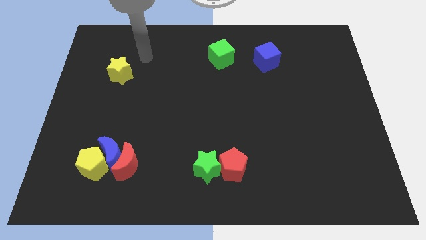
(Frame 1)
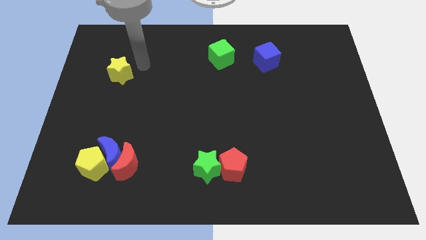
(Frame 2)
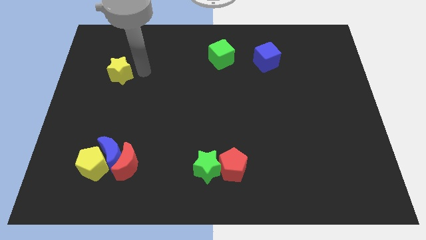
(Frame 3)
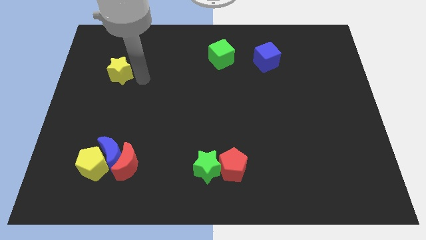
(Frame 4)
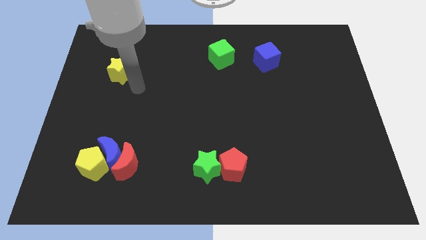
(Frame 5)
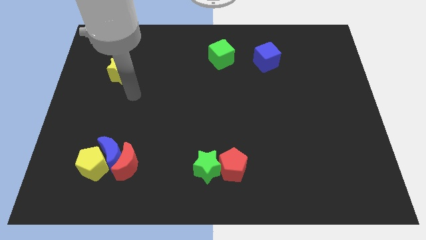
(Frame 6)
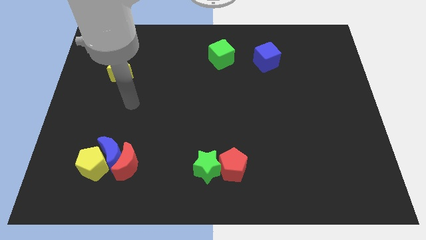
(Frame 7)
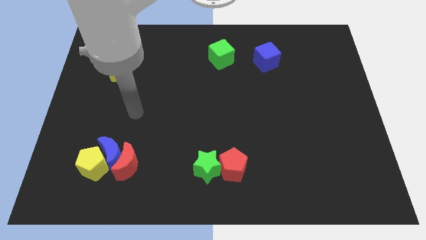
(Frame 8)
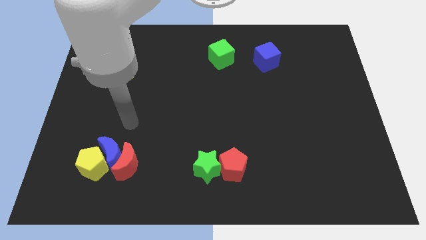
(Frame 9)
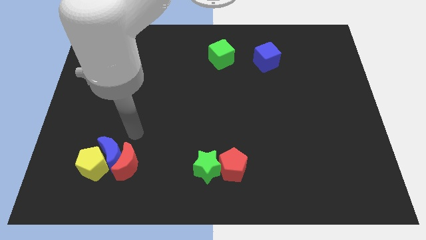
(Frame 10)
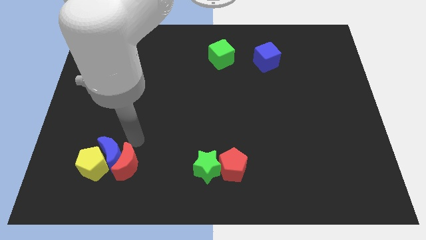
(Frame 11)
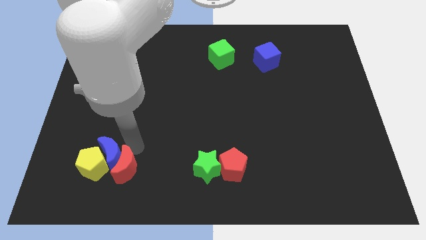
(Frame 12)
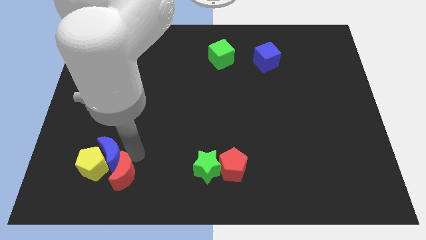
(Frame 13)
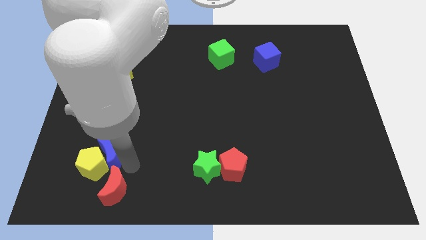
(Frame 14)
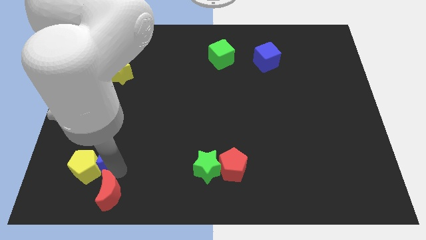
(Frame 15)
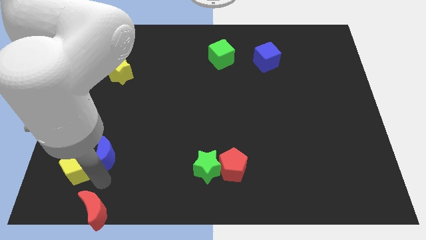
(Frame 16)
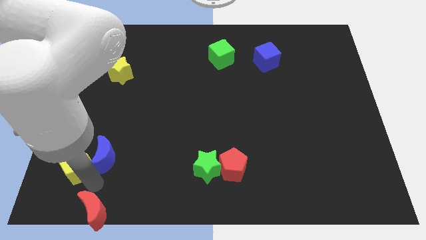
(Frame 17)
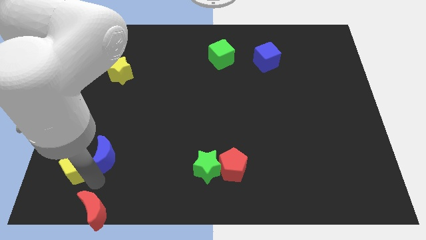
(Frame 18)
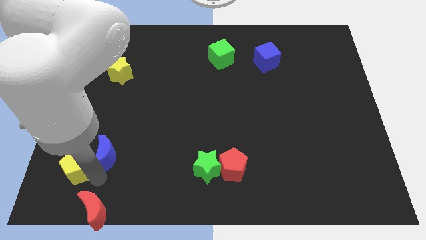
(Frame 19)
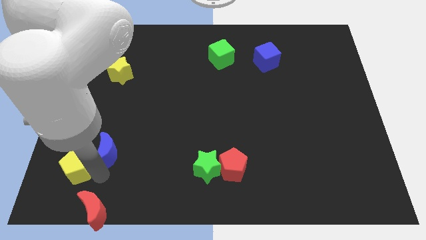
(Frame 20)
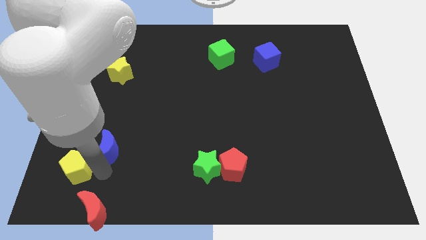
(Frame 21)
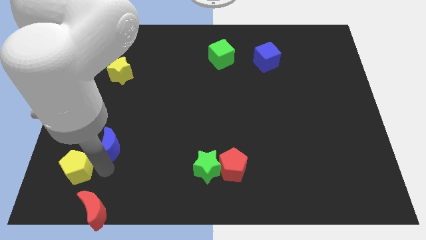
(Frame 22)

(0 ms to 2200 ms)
move the blue moon away from the red moon and yellow pentagon

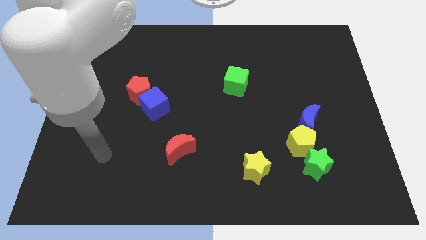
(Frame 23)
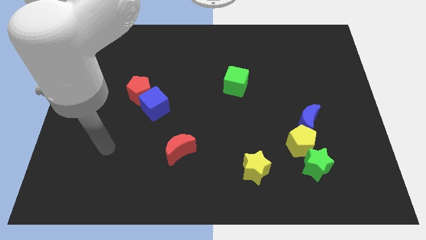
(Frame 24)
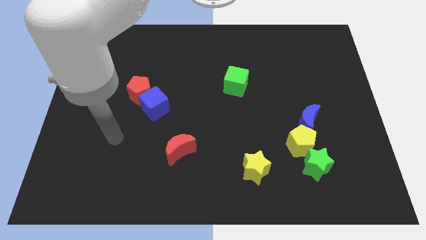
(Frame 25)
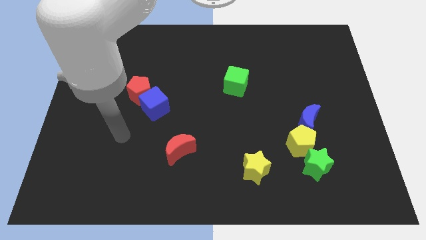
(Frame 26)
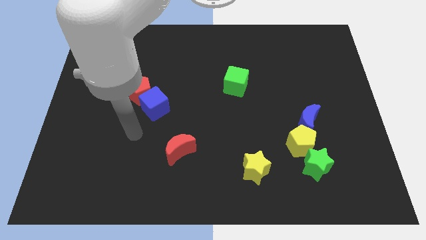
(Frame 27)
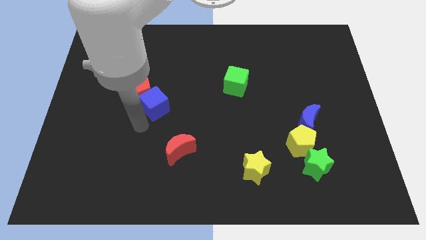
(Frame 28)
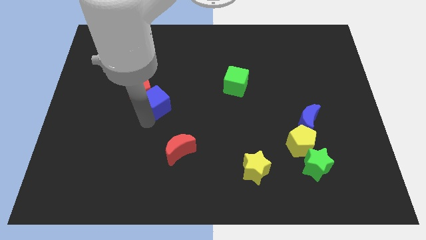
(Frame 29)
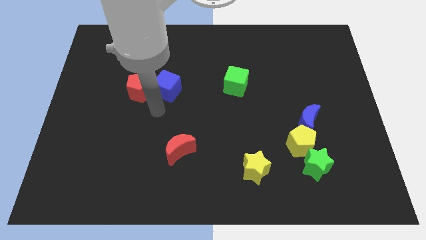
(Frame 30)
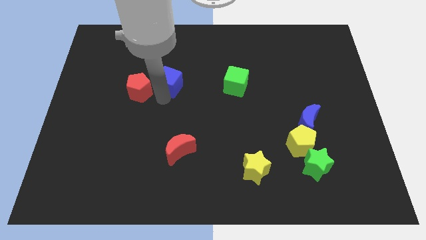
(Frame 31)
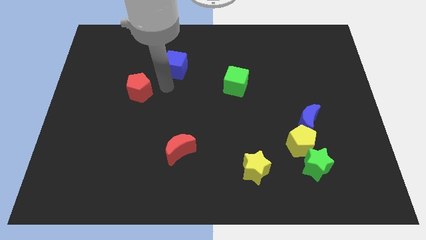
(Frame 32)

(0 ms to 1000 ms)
pull the red pentagon apart from the blue cube

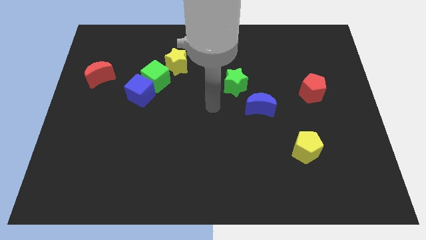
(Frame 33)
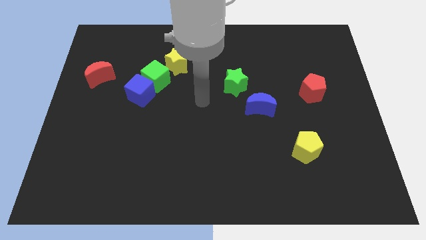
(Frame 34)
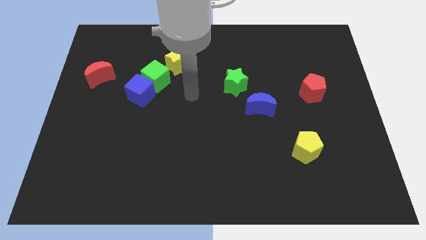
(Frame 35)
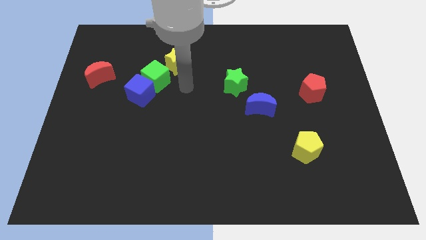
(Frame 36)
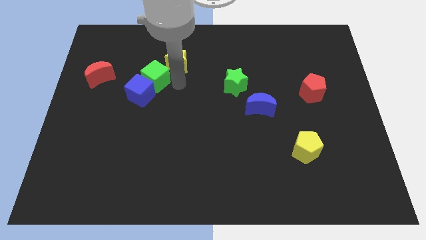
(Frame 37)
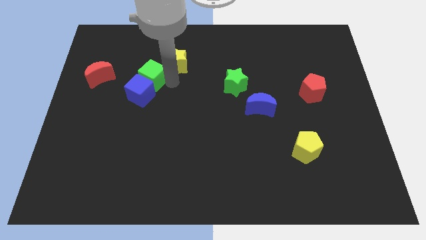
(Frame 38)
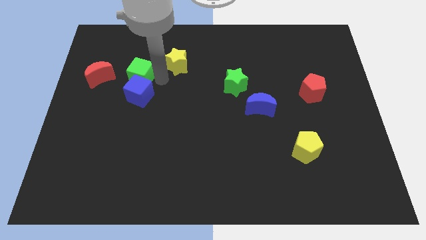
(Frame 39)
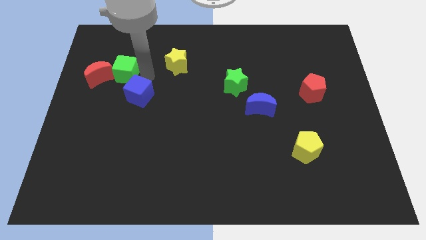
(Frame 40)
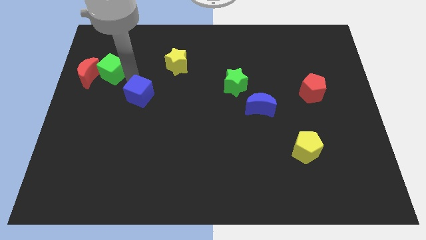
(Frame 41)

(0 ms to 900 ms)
move the blue cube away from the green cube

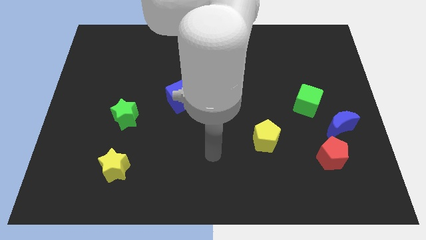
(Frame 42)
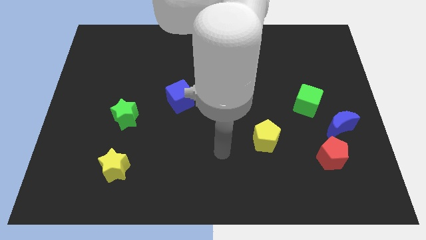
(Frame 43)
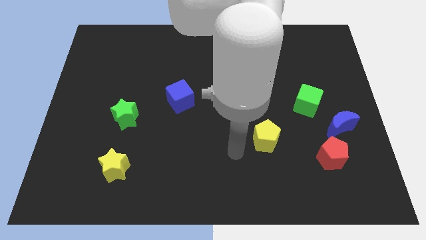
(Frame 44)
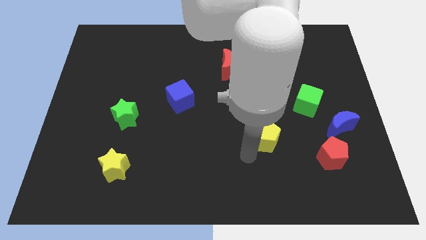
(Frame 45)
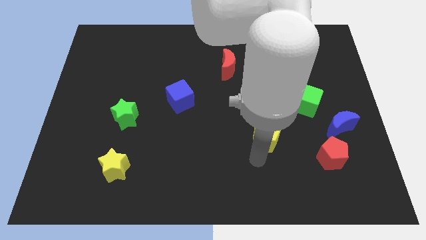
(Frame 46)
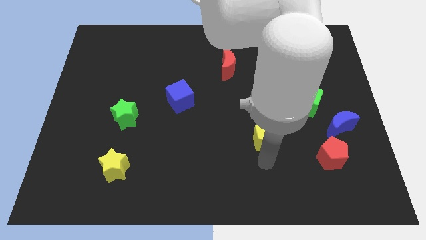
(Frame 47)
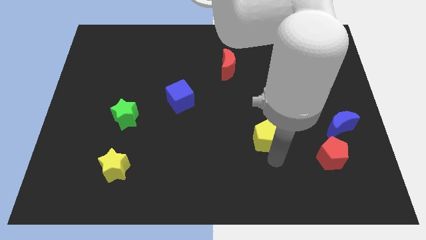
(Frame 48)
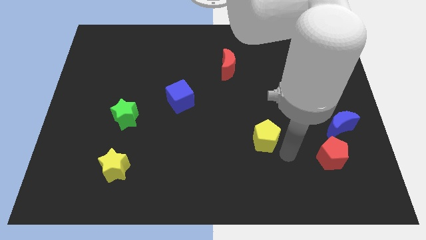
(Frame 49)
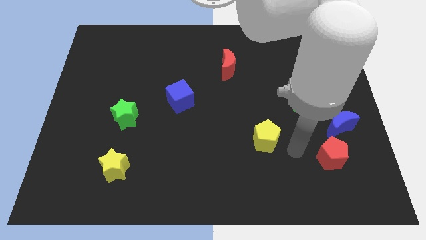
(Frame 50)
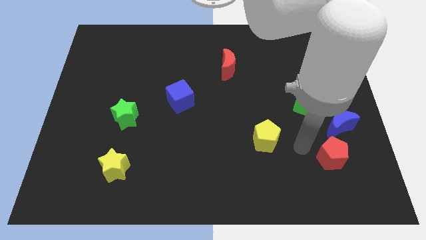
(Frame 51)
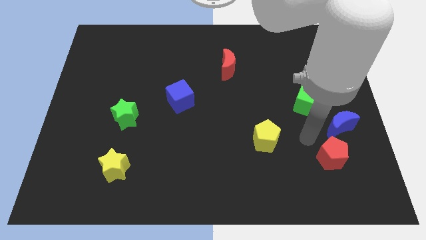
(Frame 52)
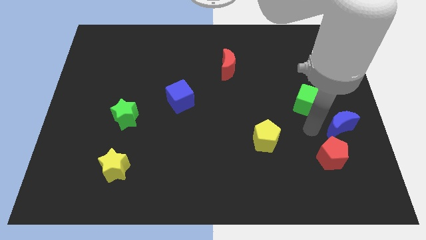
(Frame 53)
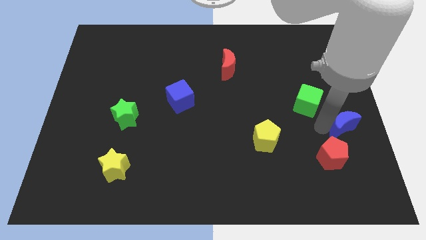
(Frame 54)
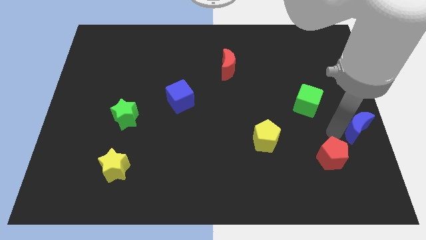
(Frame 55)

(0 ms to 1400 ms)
pull the red pentagon apart from the blue moon

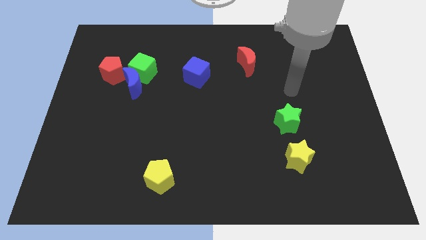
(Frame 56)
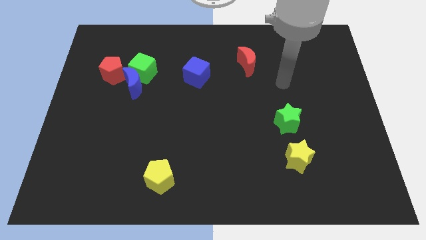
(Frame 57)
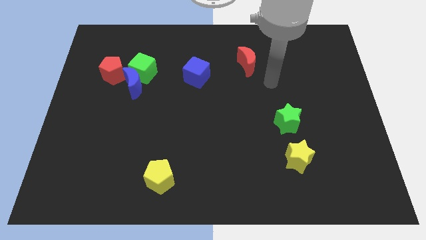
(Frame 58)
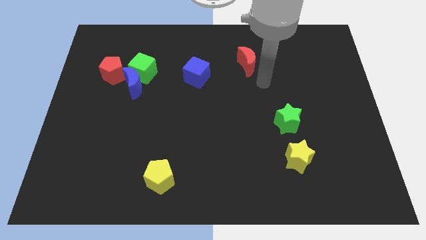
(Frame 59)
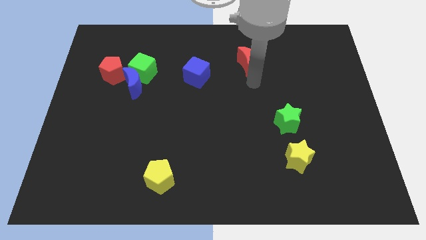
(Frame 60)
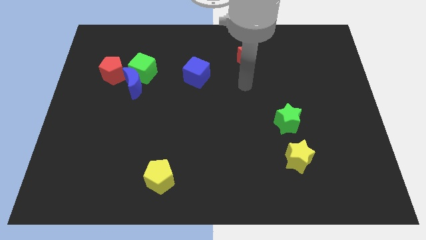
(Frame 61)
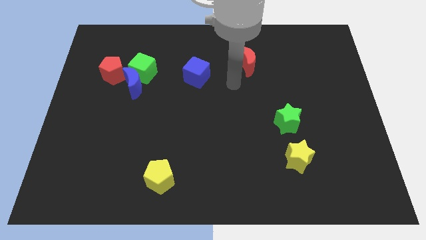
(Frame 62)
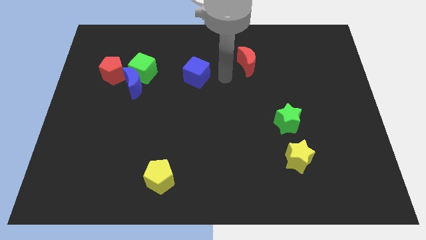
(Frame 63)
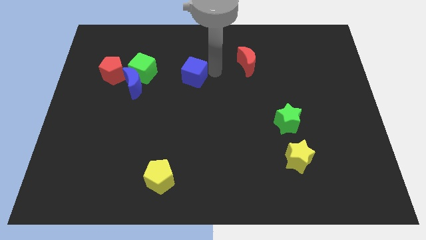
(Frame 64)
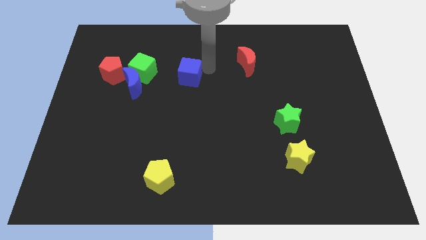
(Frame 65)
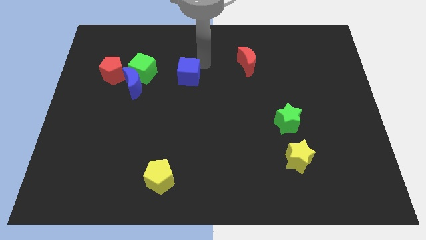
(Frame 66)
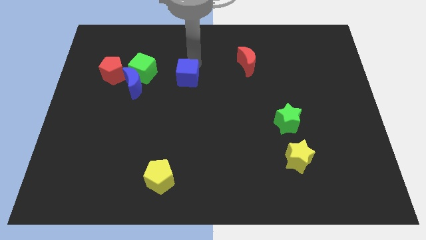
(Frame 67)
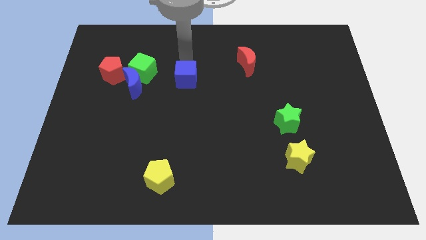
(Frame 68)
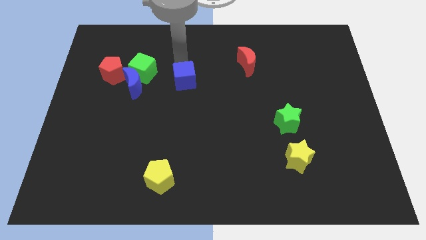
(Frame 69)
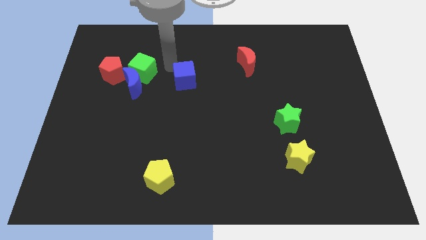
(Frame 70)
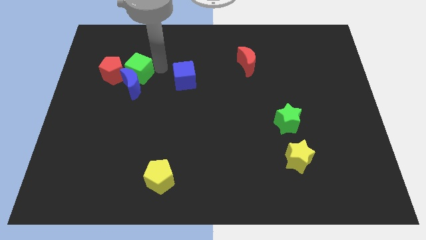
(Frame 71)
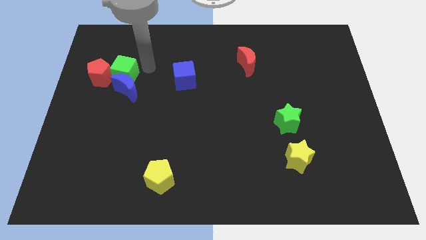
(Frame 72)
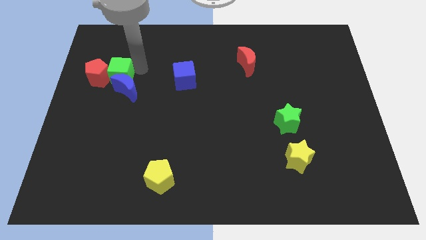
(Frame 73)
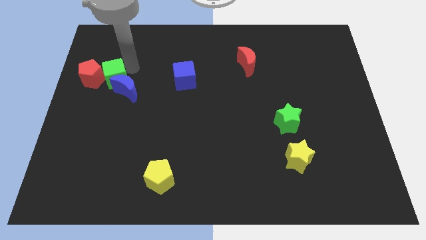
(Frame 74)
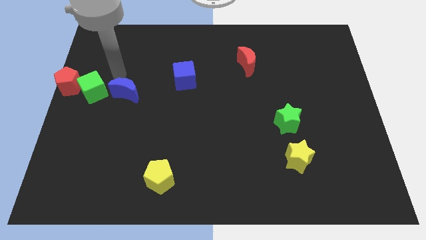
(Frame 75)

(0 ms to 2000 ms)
separate the blue moon from the green cube and red pentagon

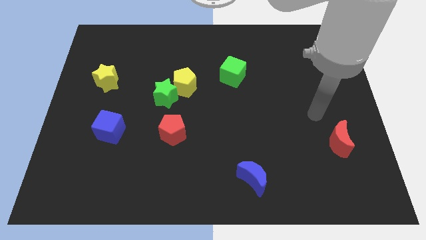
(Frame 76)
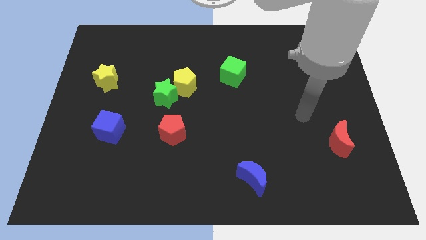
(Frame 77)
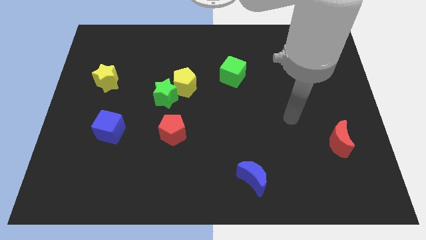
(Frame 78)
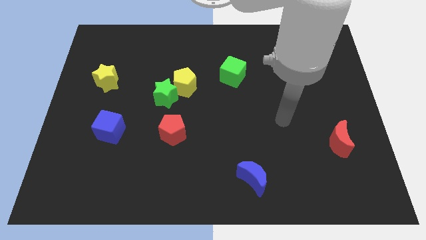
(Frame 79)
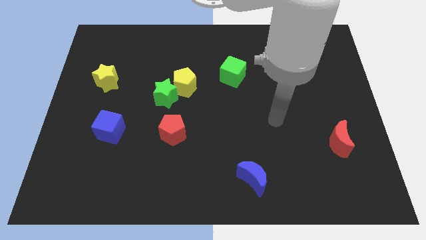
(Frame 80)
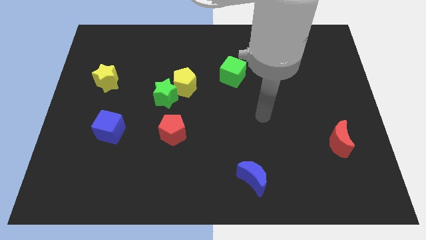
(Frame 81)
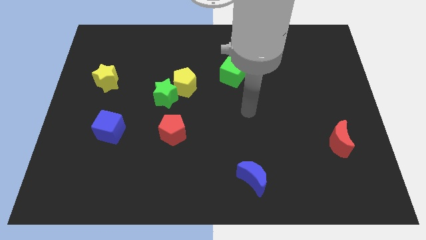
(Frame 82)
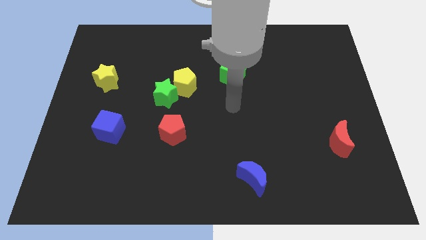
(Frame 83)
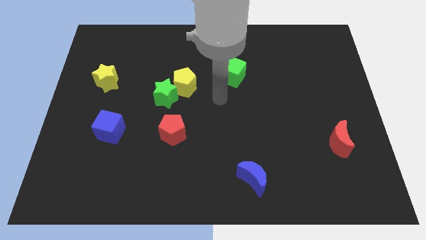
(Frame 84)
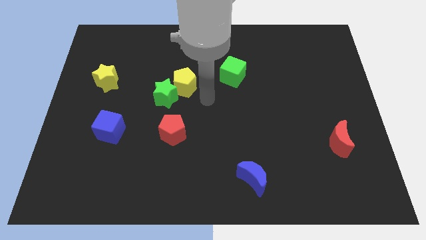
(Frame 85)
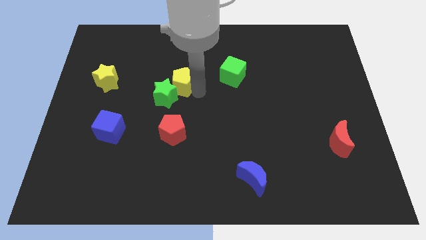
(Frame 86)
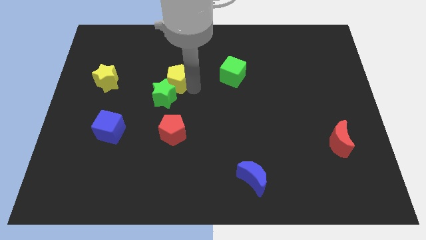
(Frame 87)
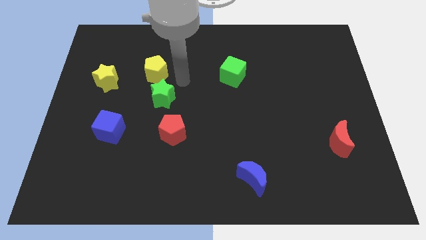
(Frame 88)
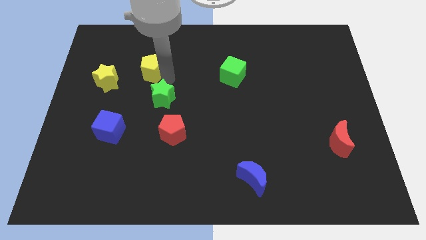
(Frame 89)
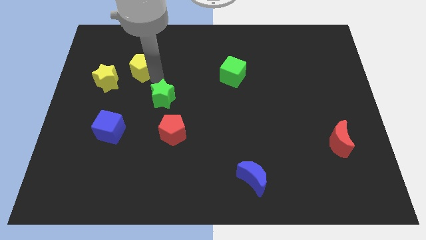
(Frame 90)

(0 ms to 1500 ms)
move the green star away from the yellow pentagon

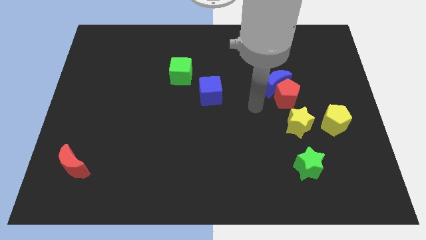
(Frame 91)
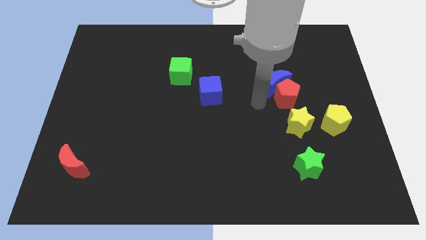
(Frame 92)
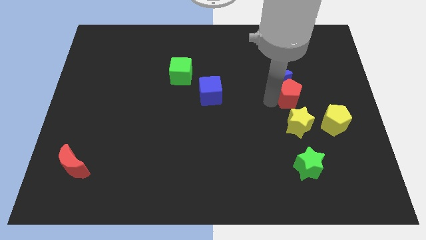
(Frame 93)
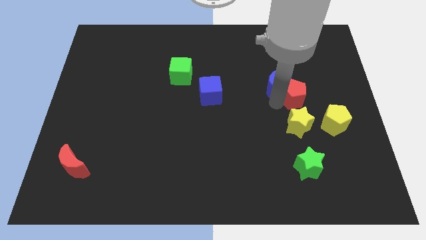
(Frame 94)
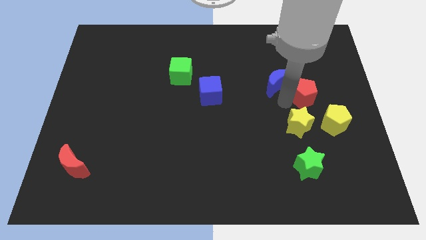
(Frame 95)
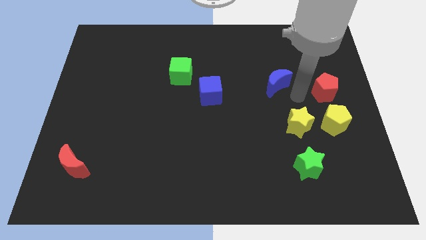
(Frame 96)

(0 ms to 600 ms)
pull the blue moon apart from the red pentagon
